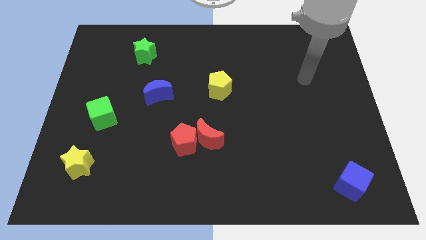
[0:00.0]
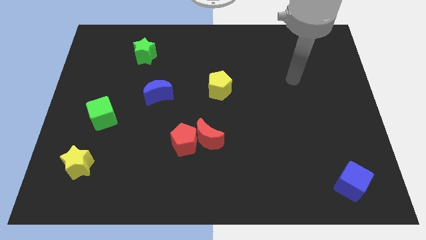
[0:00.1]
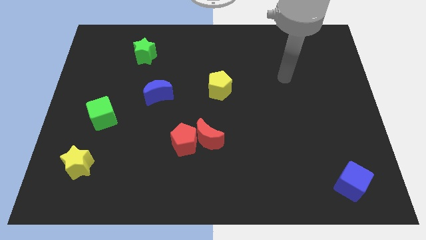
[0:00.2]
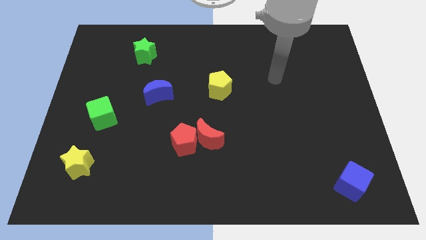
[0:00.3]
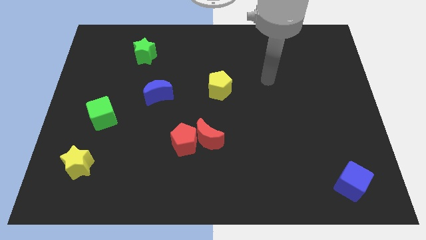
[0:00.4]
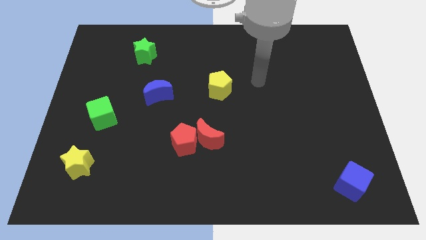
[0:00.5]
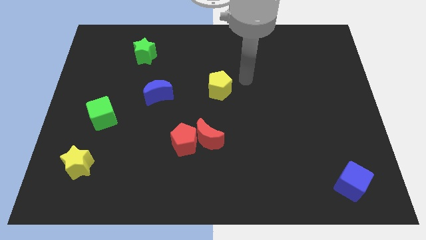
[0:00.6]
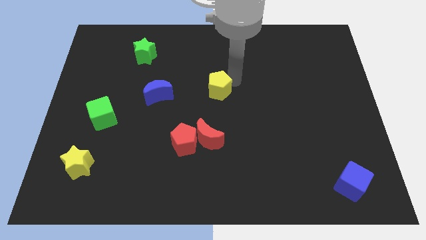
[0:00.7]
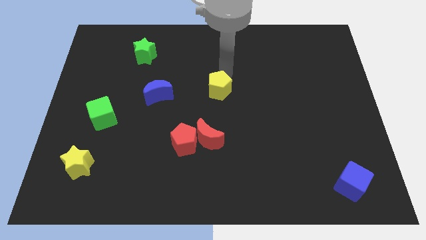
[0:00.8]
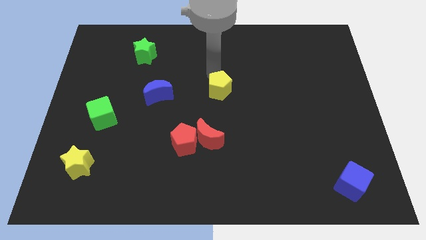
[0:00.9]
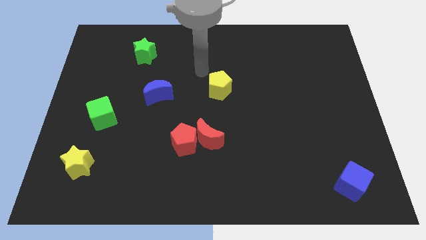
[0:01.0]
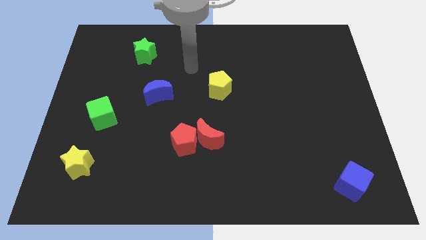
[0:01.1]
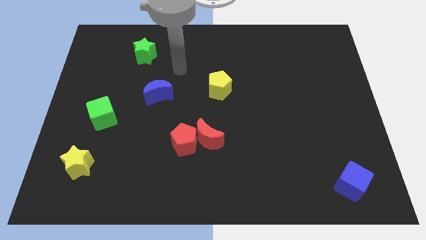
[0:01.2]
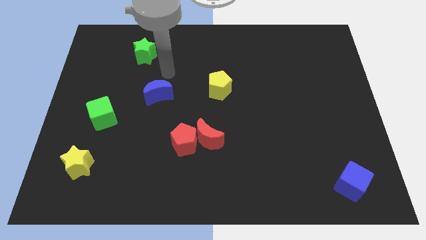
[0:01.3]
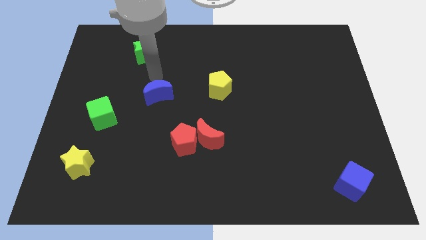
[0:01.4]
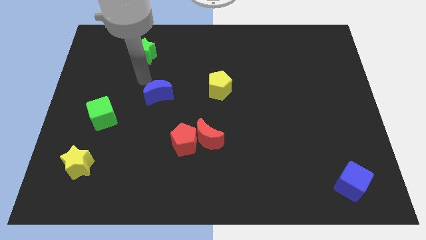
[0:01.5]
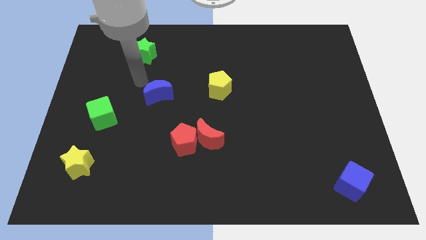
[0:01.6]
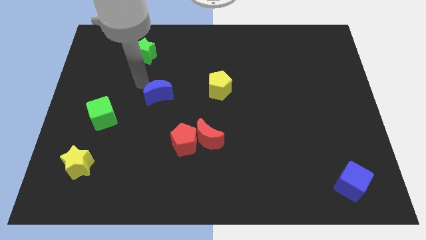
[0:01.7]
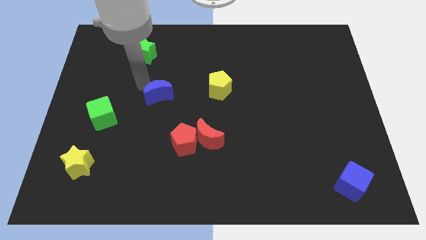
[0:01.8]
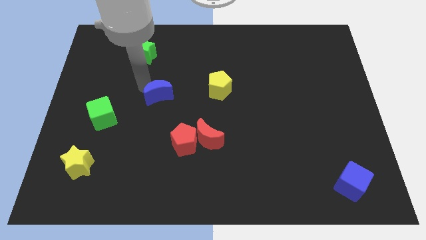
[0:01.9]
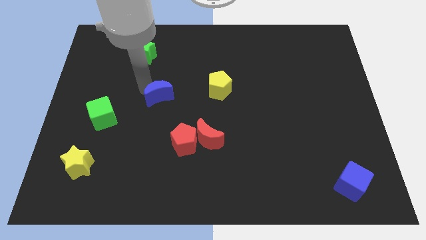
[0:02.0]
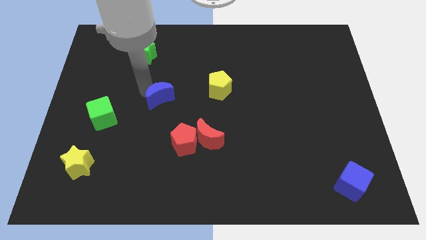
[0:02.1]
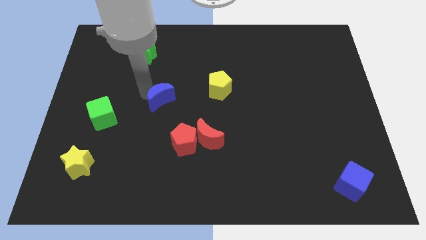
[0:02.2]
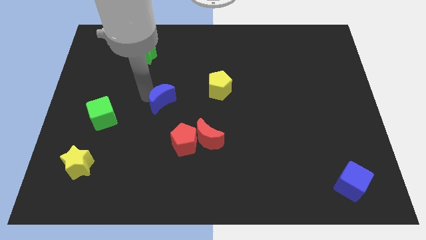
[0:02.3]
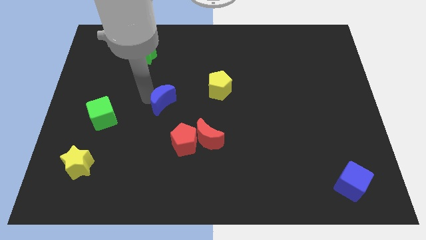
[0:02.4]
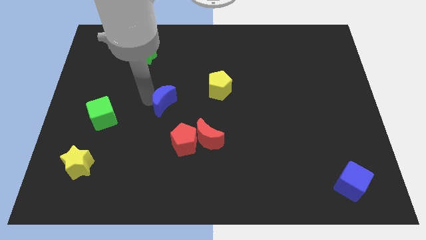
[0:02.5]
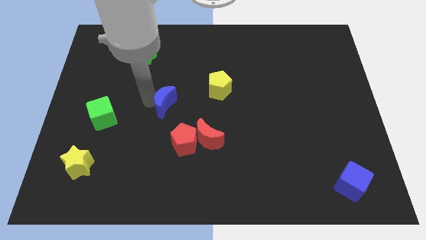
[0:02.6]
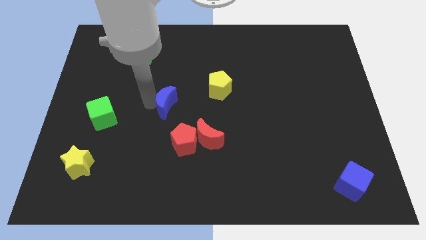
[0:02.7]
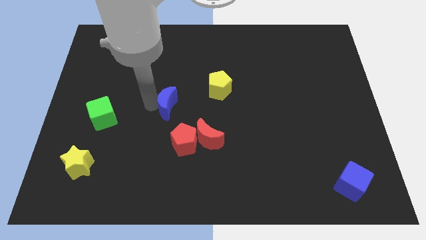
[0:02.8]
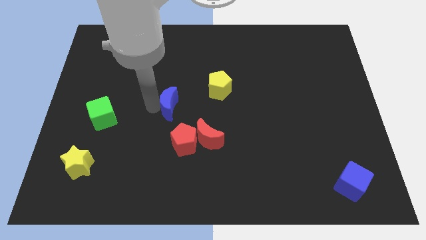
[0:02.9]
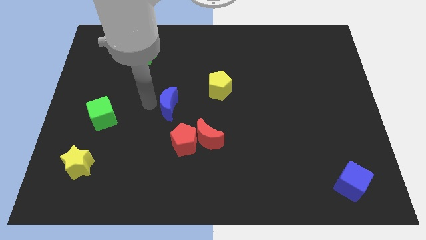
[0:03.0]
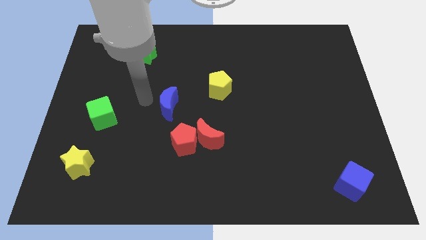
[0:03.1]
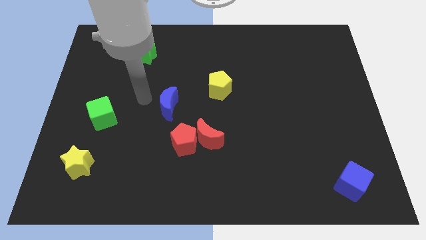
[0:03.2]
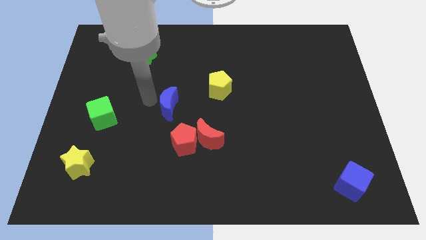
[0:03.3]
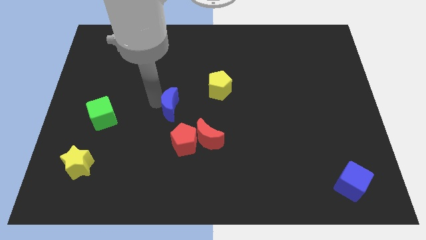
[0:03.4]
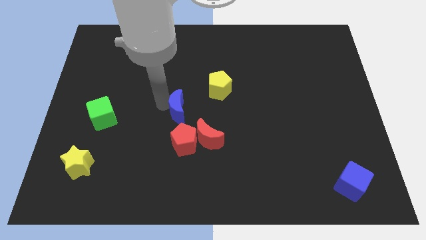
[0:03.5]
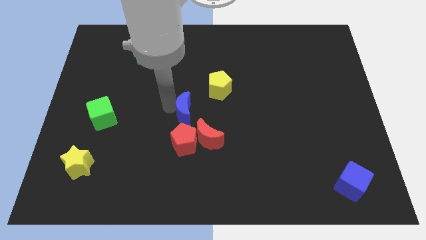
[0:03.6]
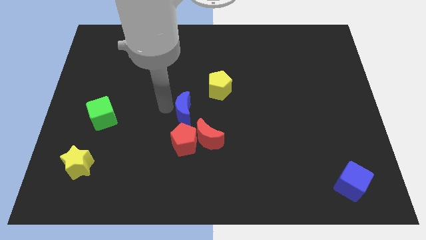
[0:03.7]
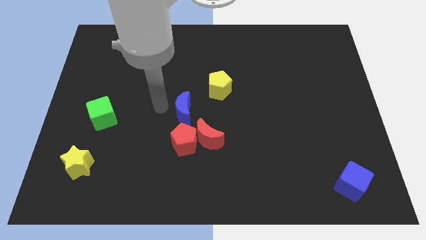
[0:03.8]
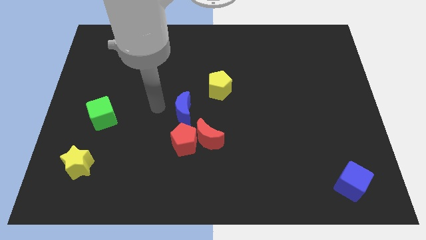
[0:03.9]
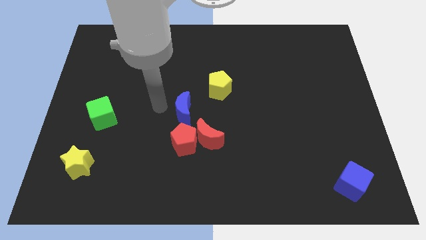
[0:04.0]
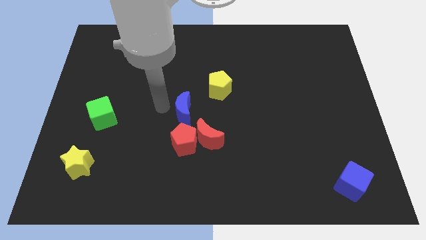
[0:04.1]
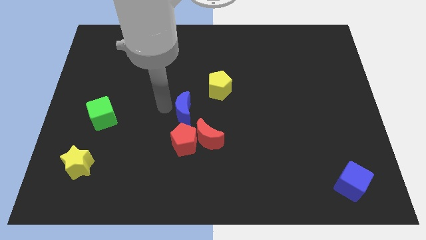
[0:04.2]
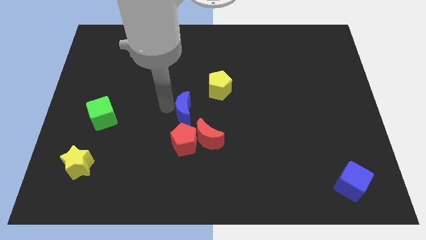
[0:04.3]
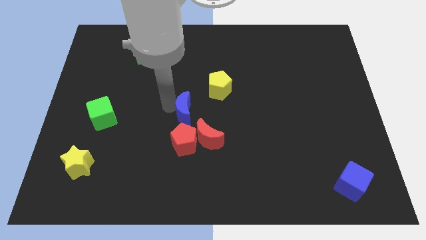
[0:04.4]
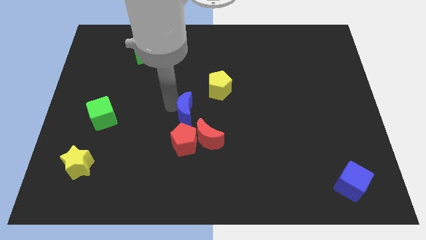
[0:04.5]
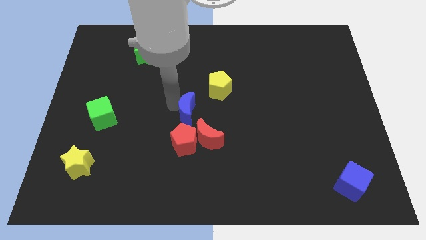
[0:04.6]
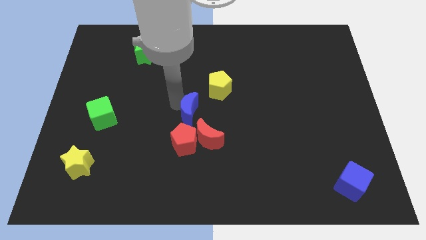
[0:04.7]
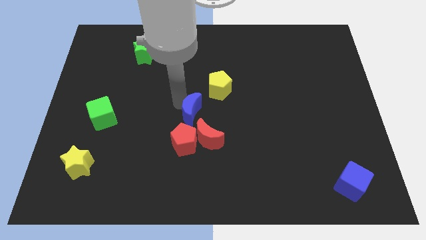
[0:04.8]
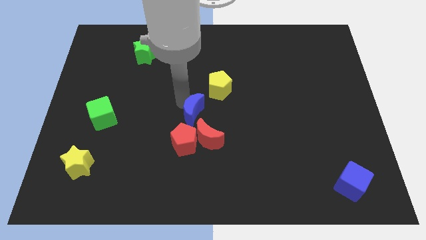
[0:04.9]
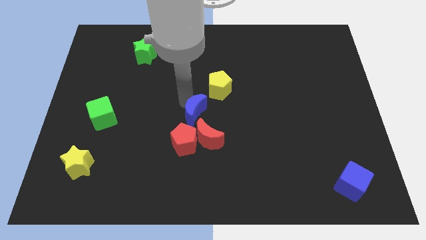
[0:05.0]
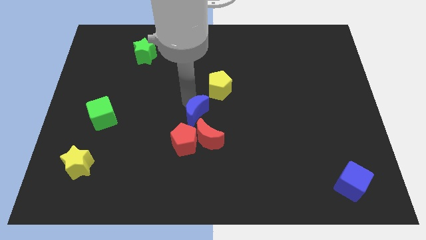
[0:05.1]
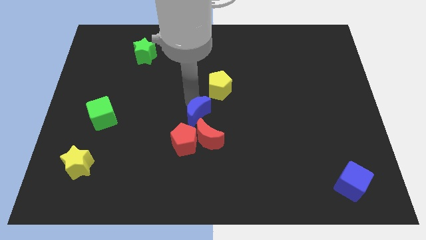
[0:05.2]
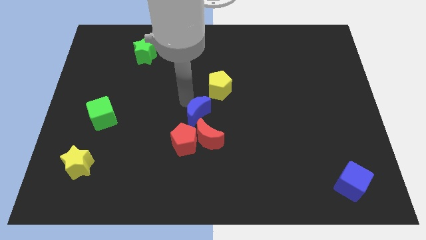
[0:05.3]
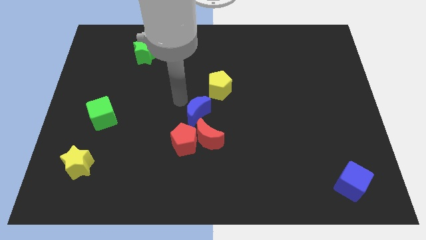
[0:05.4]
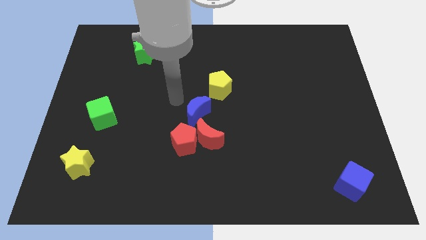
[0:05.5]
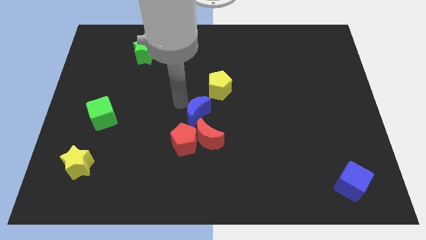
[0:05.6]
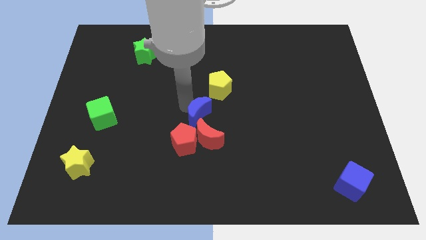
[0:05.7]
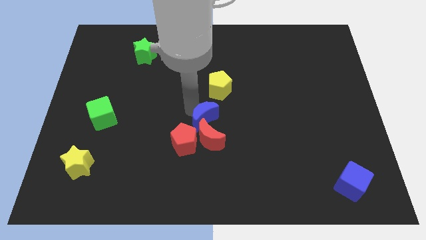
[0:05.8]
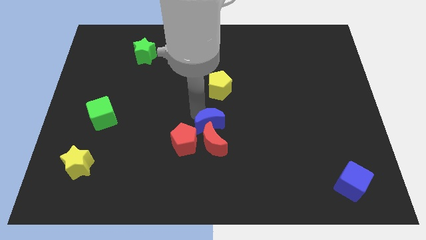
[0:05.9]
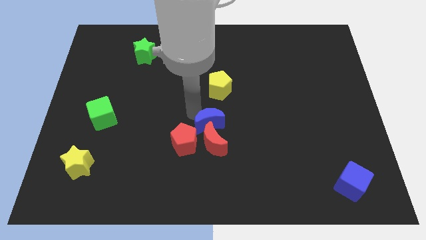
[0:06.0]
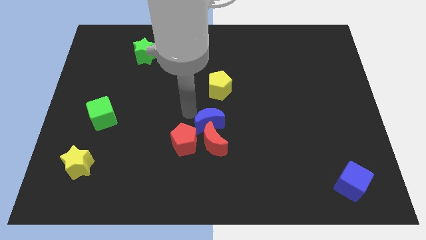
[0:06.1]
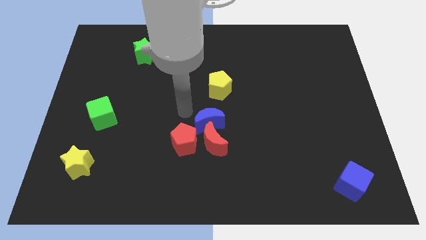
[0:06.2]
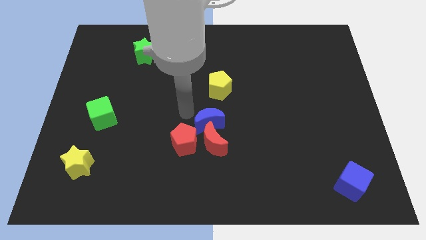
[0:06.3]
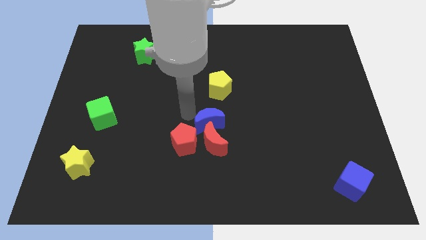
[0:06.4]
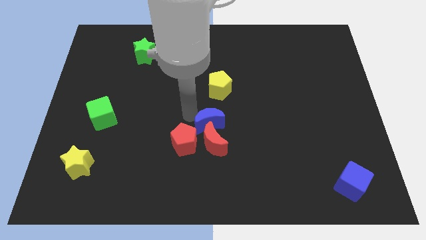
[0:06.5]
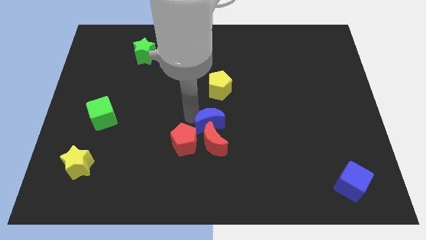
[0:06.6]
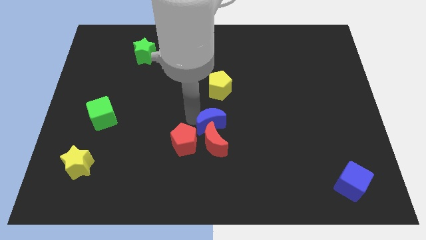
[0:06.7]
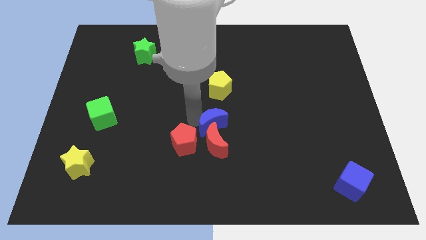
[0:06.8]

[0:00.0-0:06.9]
push the blue moon to the right of the red pentagon
